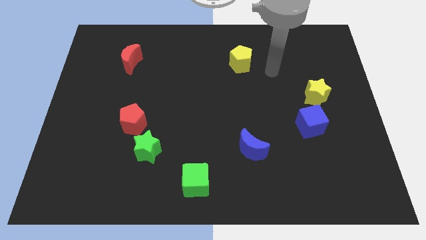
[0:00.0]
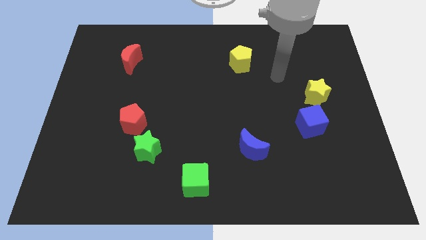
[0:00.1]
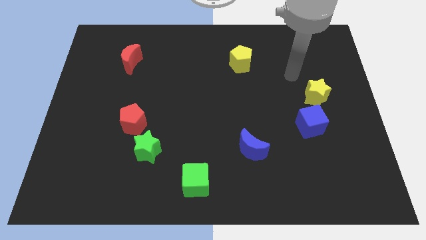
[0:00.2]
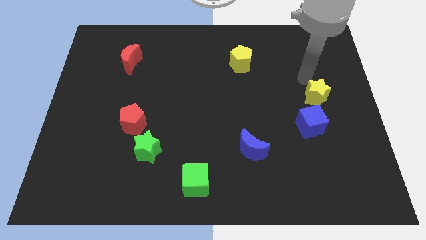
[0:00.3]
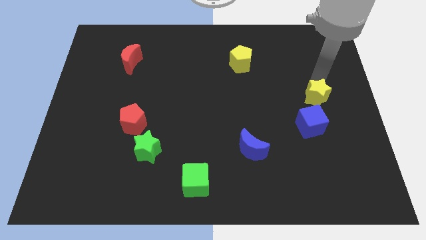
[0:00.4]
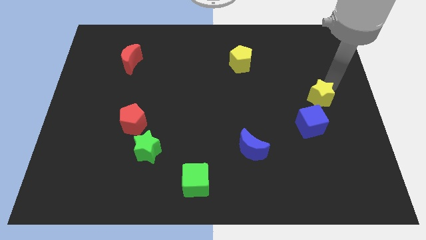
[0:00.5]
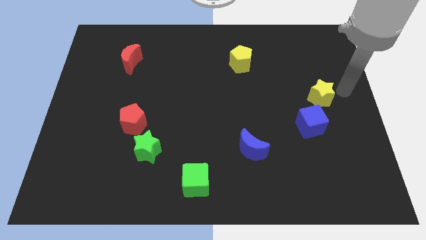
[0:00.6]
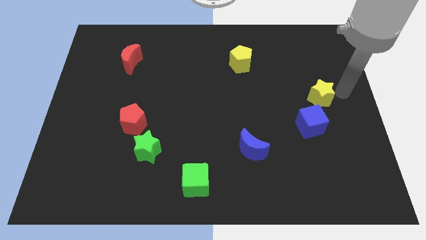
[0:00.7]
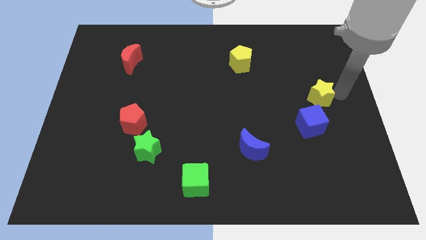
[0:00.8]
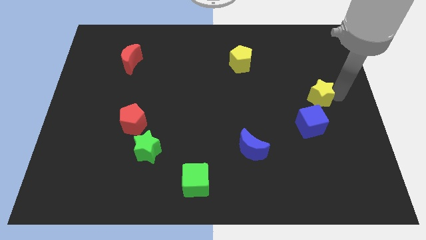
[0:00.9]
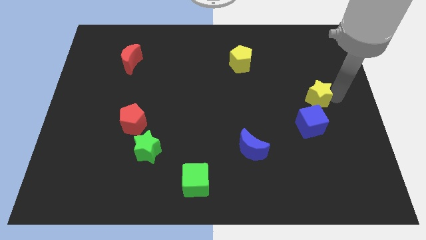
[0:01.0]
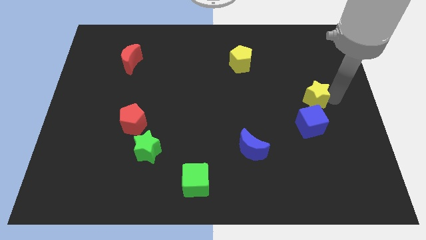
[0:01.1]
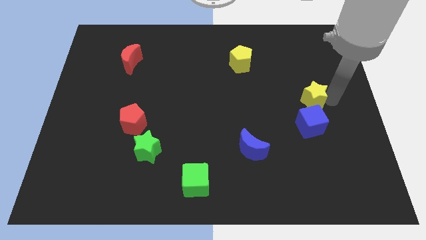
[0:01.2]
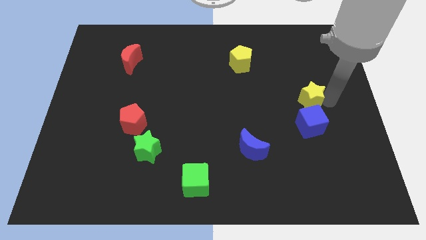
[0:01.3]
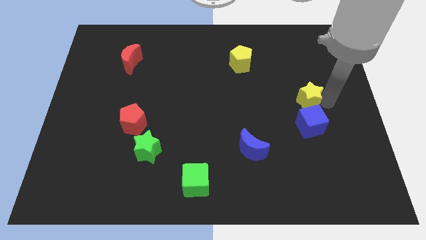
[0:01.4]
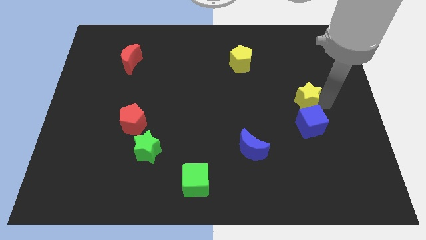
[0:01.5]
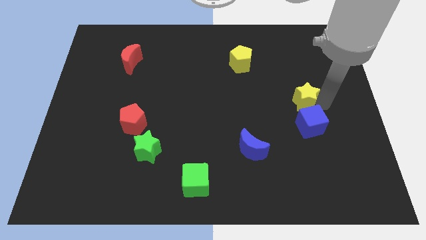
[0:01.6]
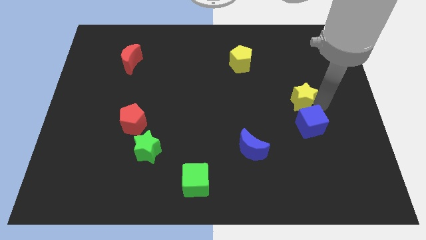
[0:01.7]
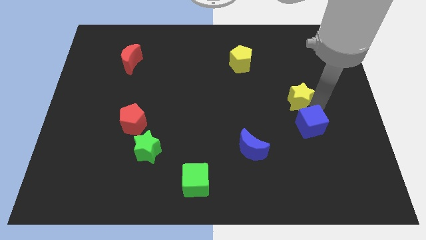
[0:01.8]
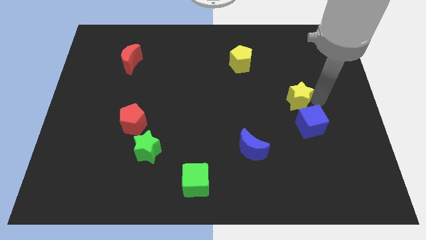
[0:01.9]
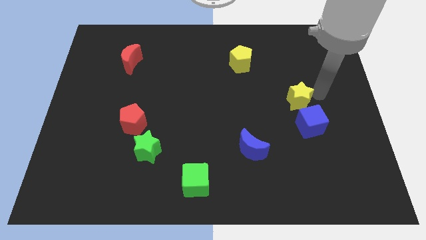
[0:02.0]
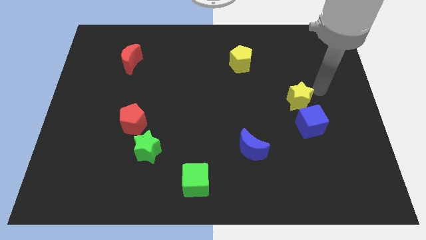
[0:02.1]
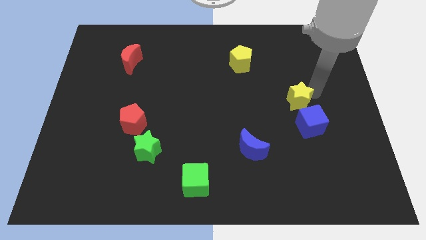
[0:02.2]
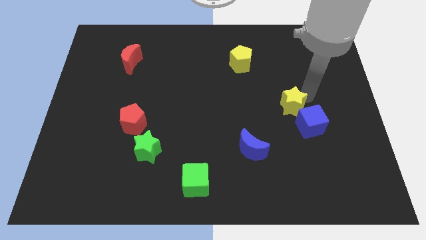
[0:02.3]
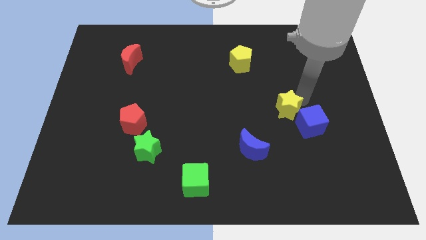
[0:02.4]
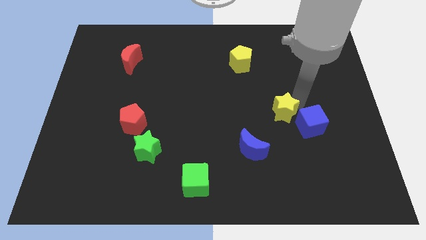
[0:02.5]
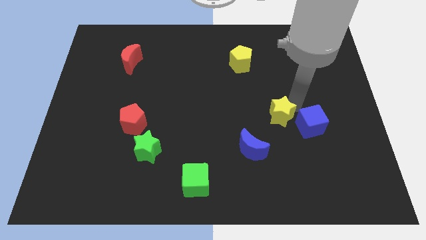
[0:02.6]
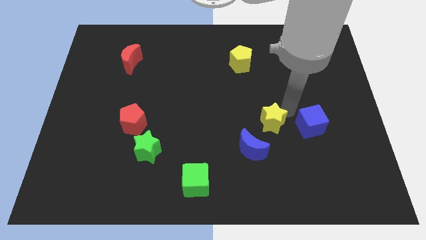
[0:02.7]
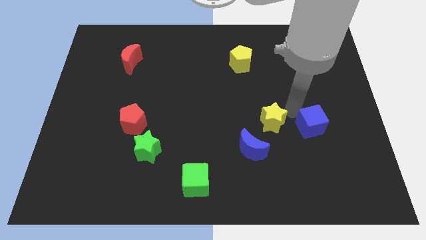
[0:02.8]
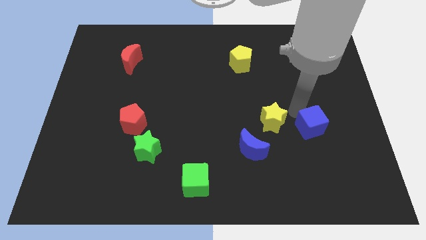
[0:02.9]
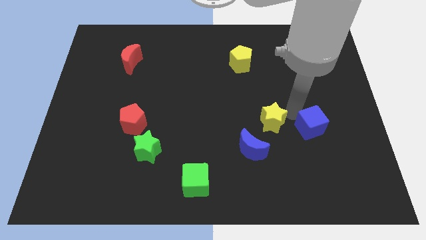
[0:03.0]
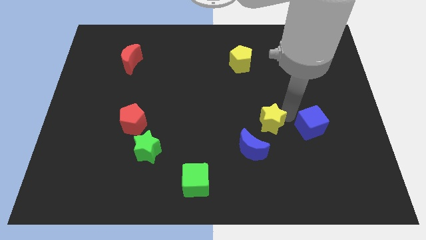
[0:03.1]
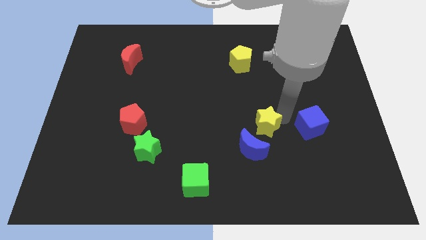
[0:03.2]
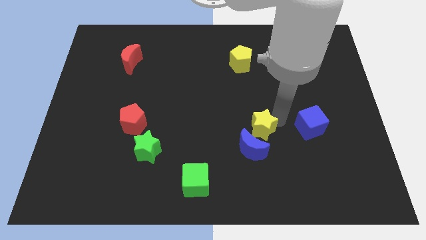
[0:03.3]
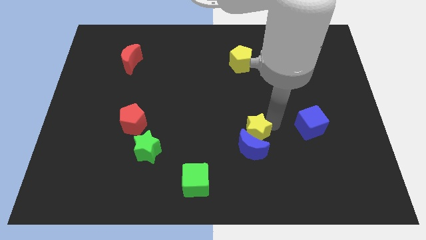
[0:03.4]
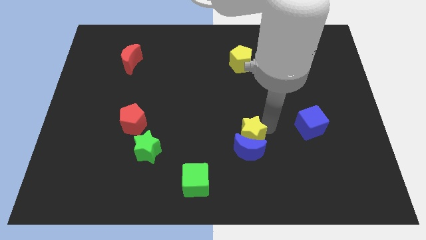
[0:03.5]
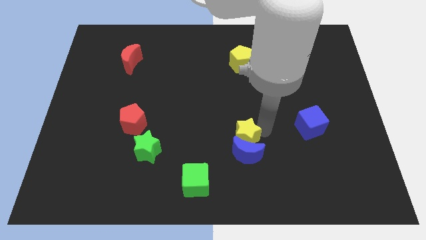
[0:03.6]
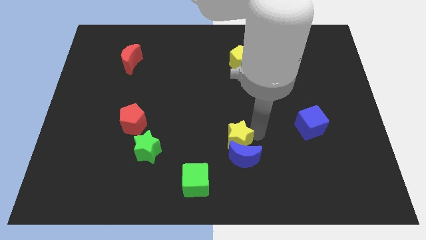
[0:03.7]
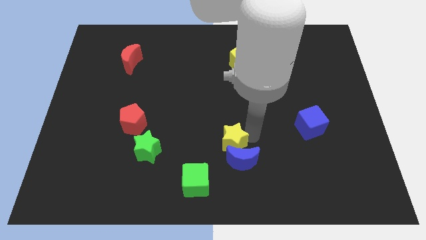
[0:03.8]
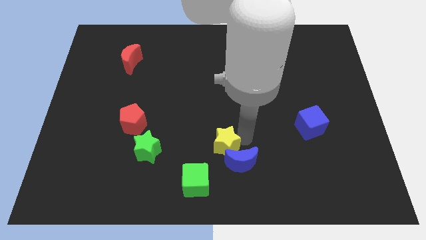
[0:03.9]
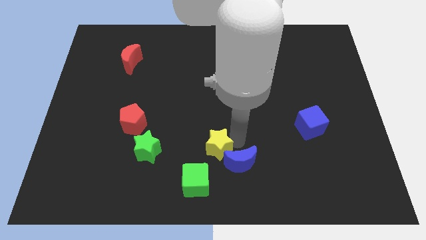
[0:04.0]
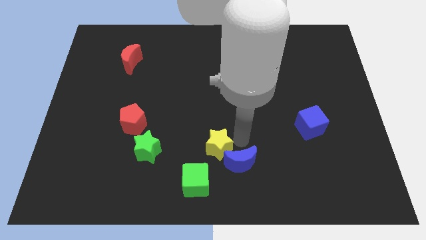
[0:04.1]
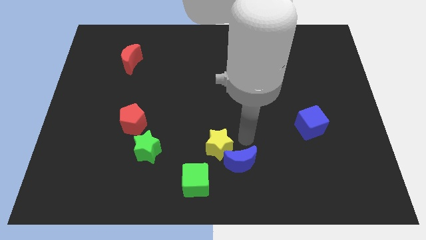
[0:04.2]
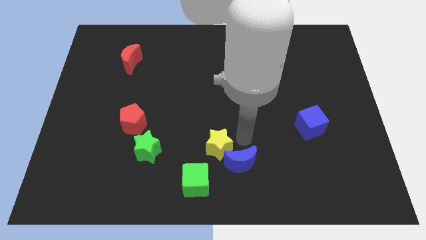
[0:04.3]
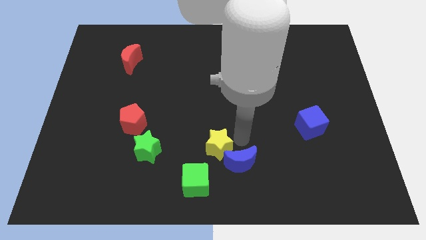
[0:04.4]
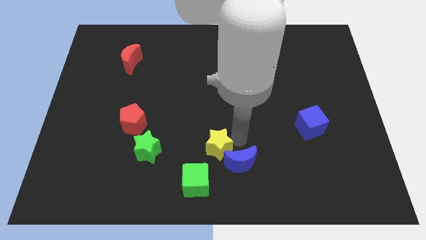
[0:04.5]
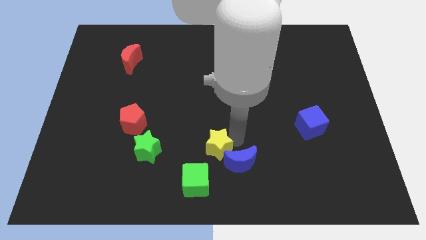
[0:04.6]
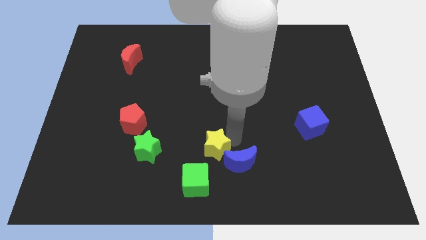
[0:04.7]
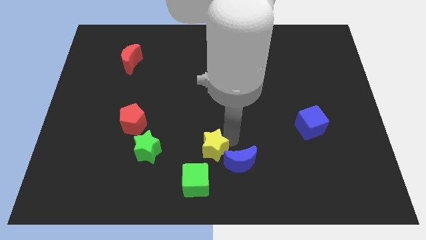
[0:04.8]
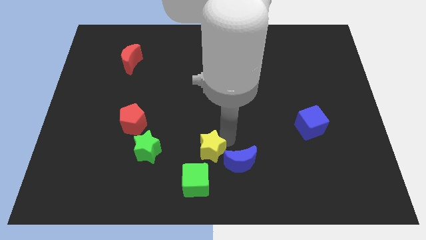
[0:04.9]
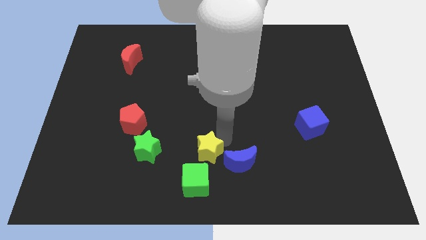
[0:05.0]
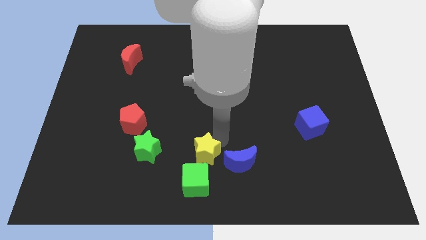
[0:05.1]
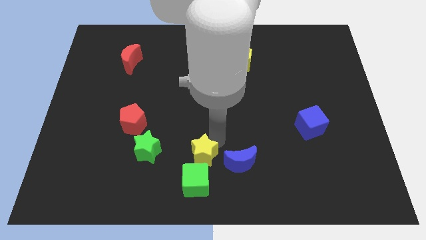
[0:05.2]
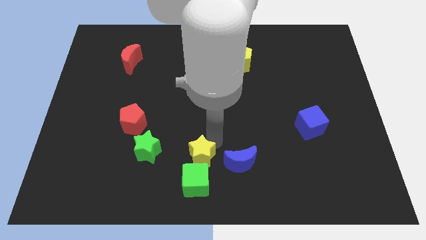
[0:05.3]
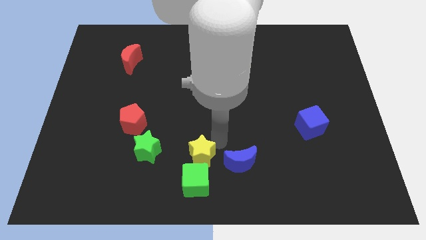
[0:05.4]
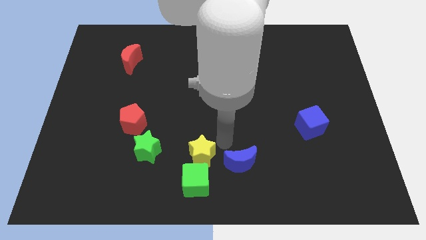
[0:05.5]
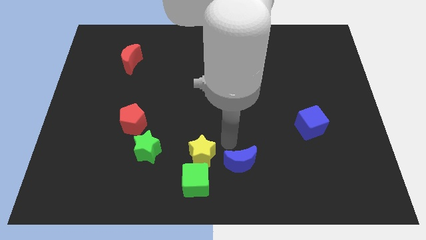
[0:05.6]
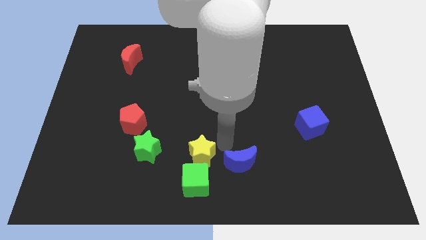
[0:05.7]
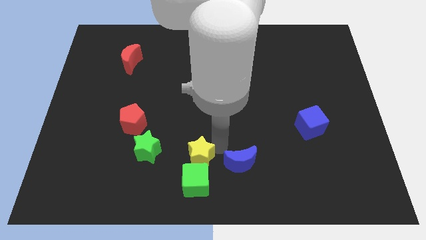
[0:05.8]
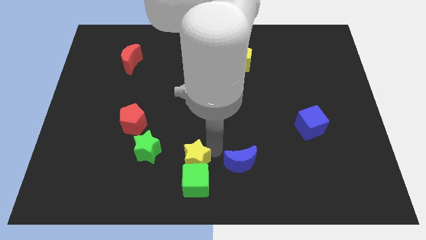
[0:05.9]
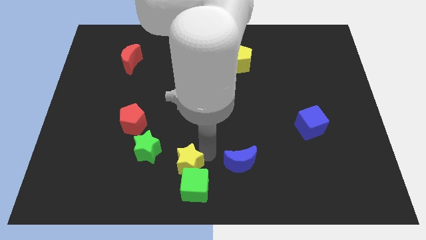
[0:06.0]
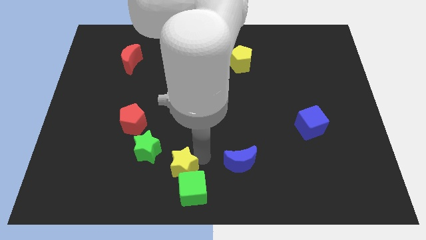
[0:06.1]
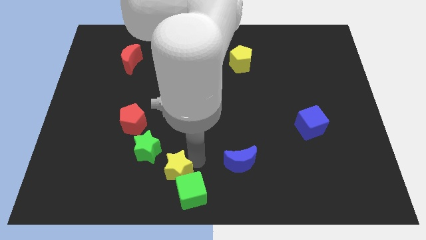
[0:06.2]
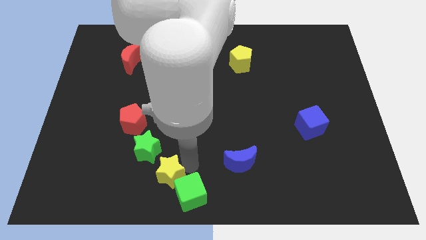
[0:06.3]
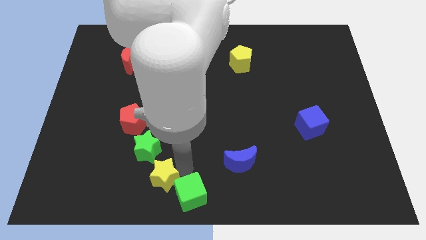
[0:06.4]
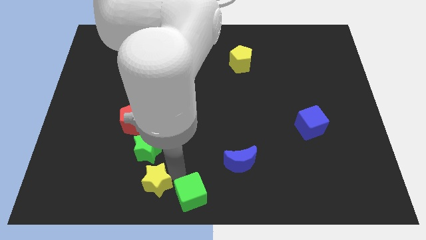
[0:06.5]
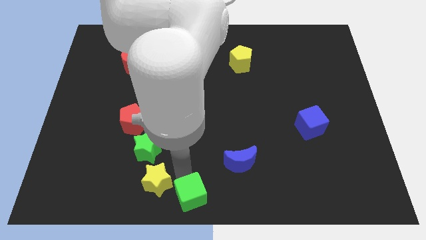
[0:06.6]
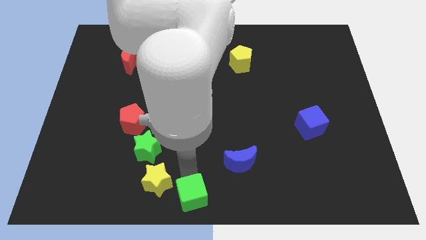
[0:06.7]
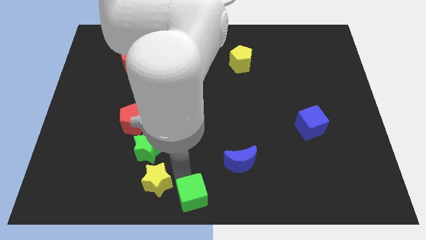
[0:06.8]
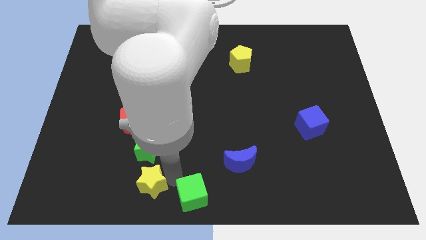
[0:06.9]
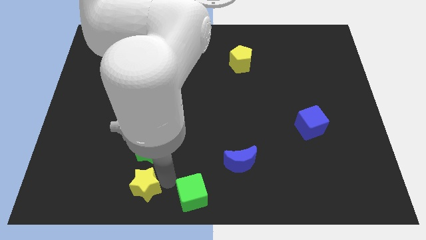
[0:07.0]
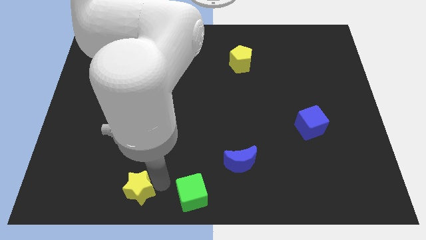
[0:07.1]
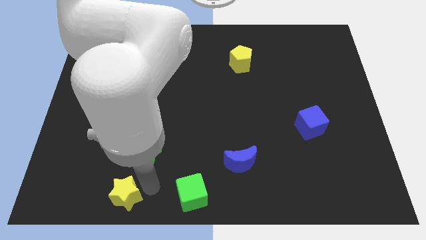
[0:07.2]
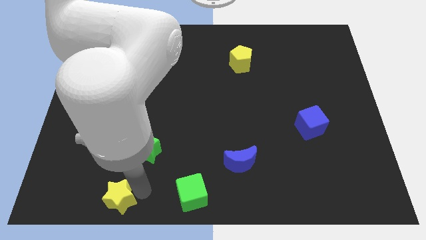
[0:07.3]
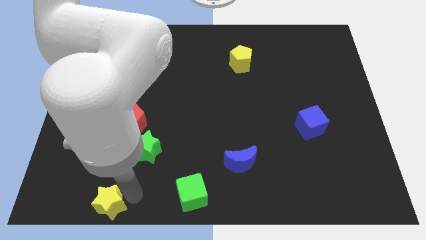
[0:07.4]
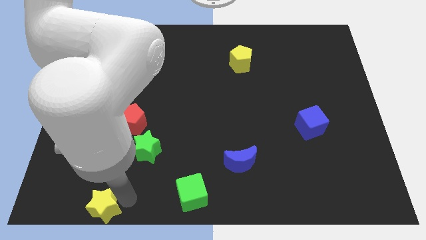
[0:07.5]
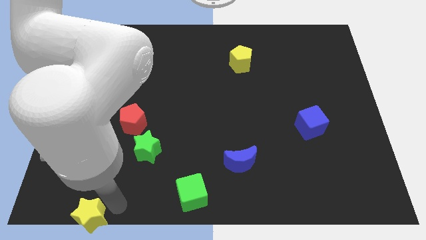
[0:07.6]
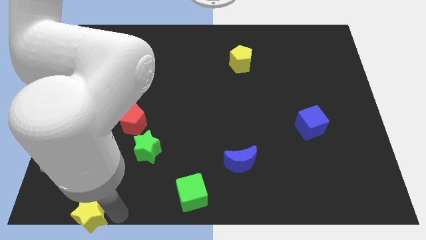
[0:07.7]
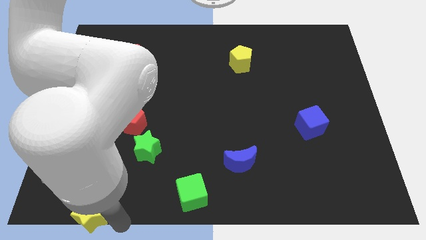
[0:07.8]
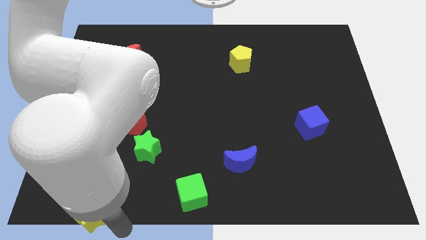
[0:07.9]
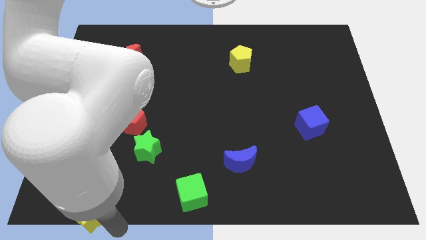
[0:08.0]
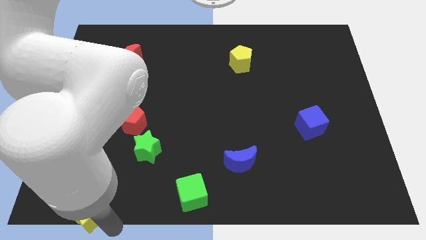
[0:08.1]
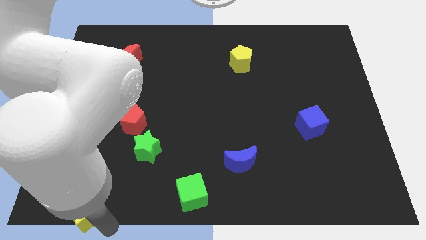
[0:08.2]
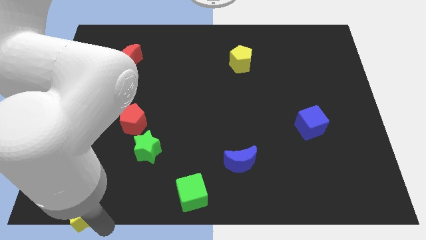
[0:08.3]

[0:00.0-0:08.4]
put the yellow star to the bottom left of the board
